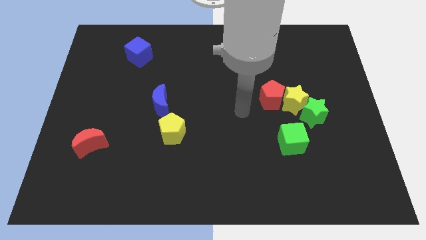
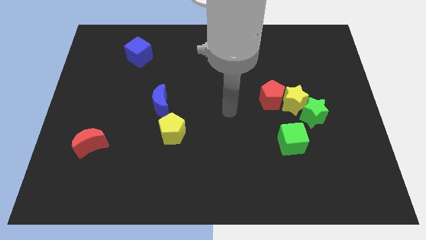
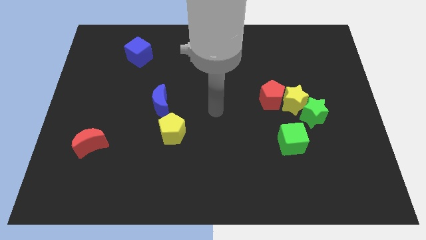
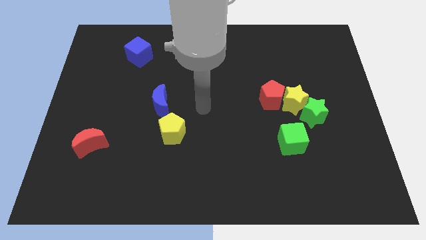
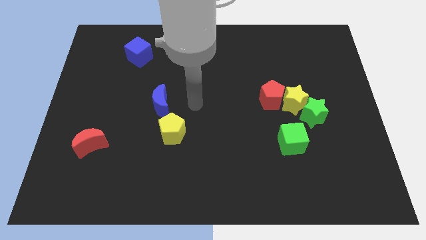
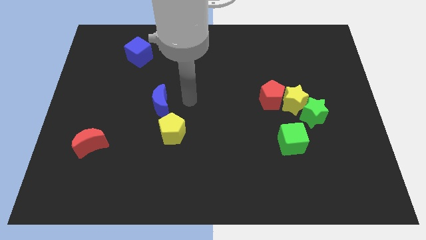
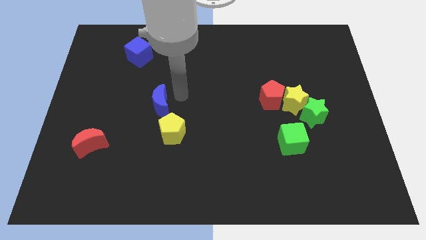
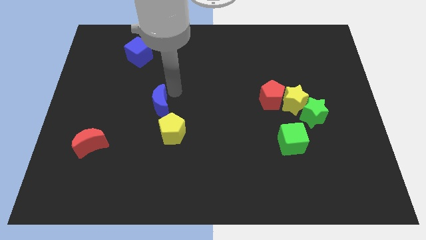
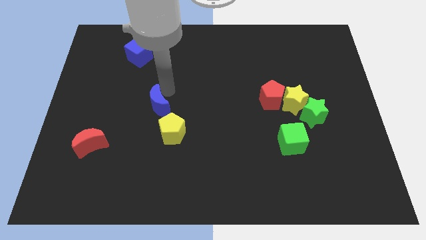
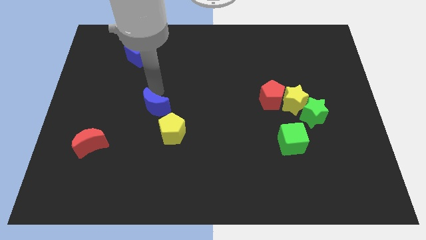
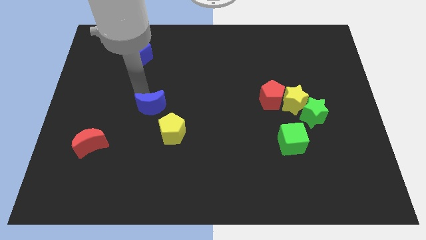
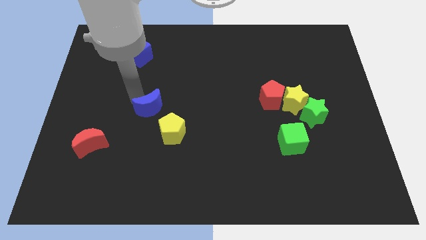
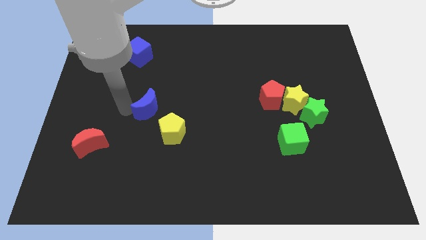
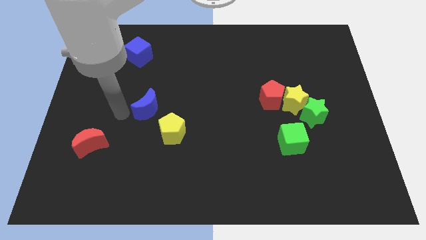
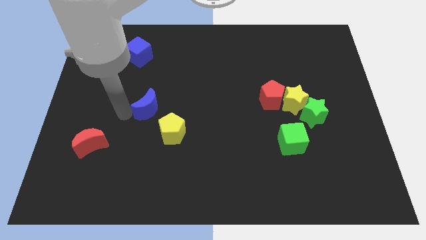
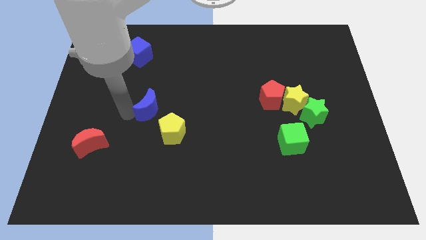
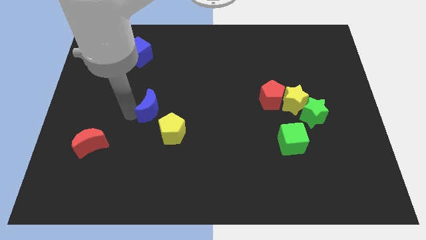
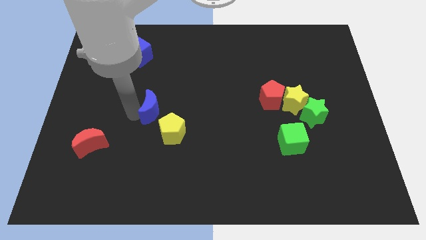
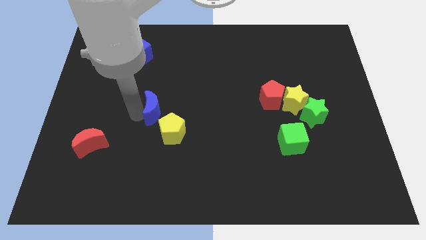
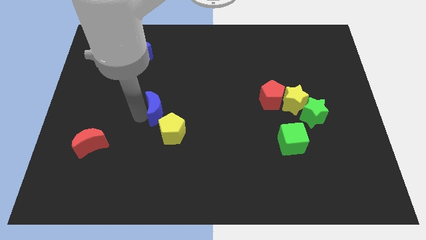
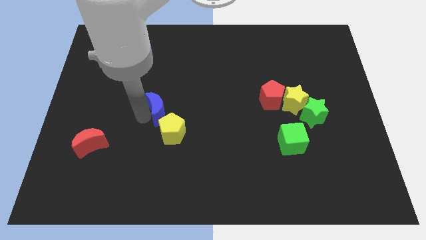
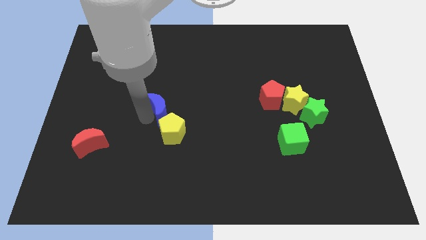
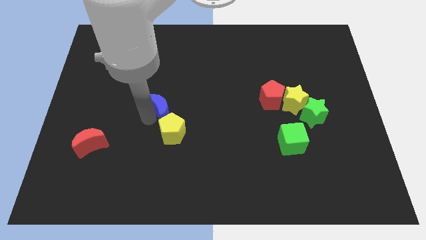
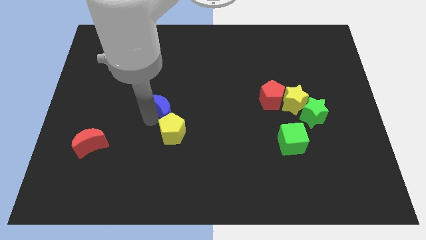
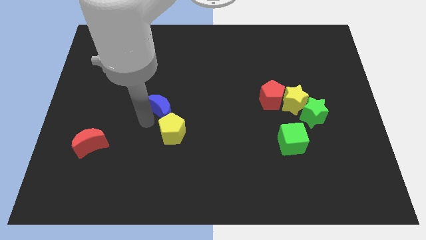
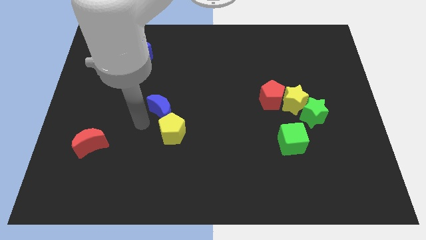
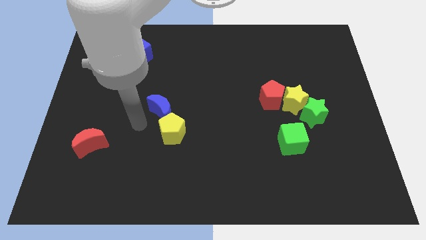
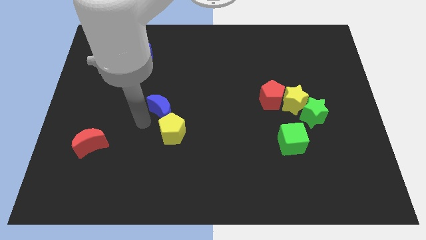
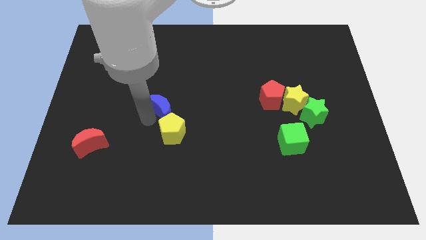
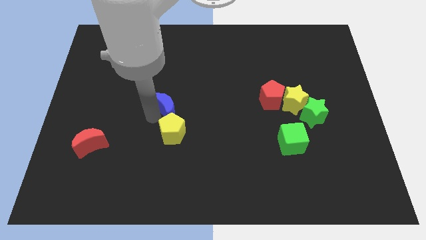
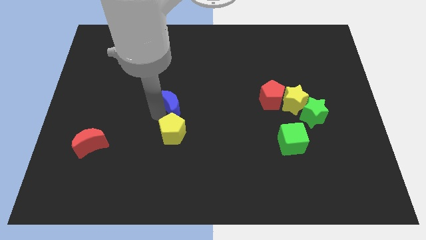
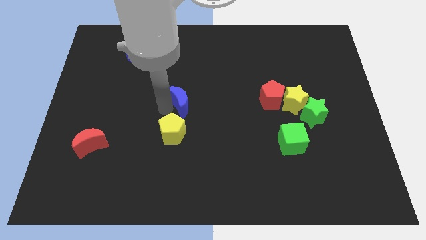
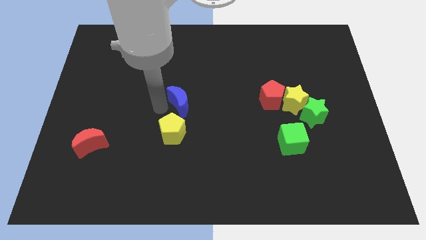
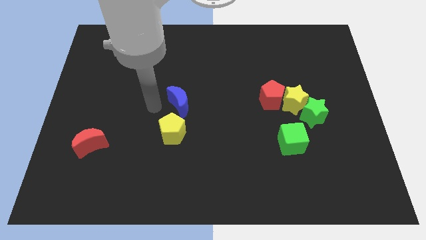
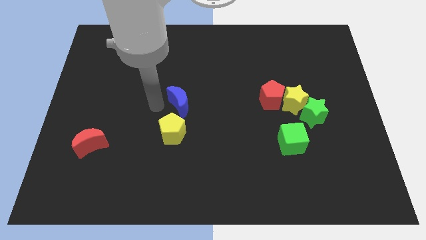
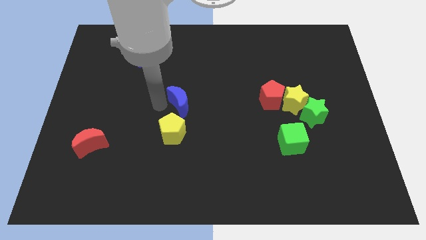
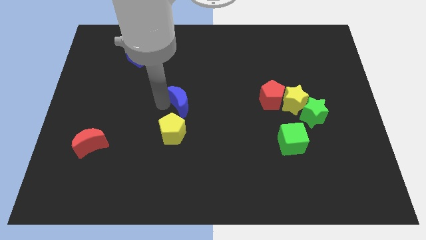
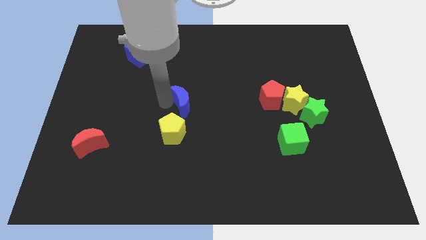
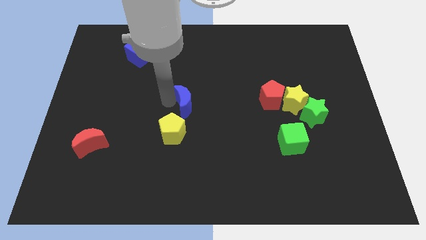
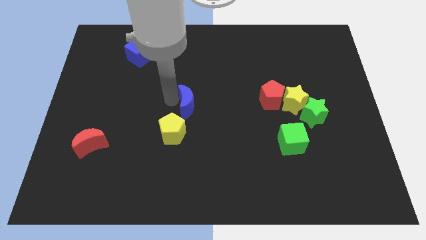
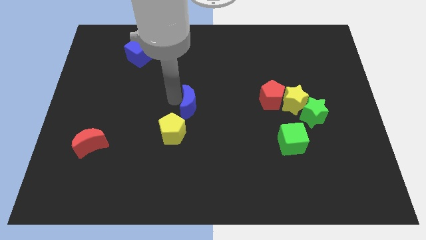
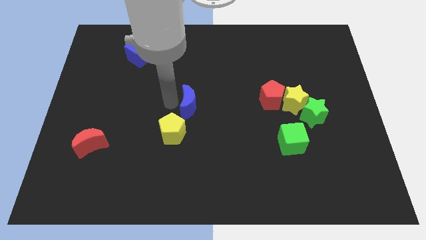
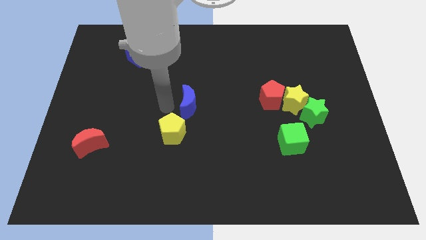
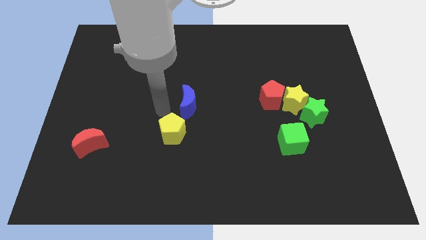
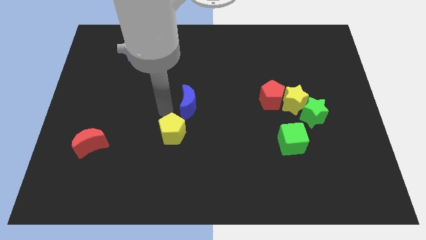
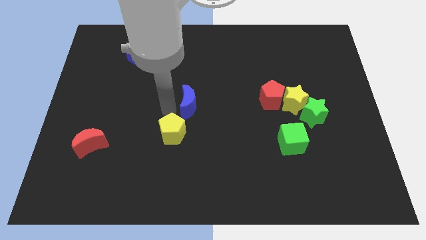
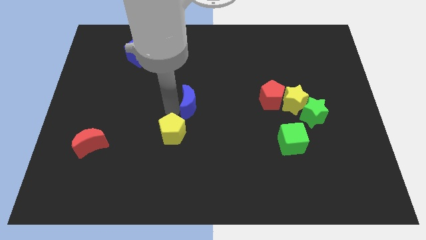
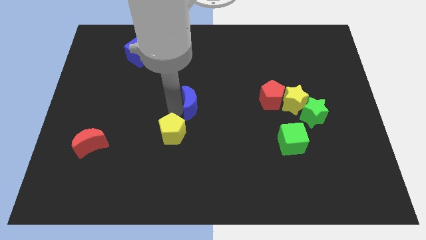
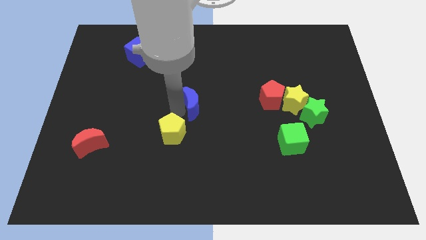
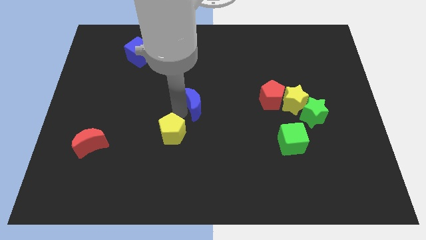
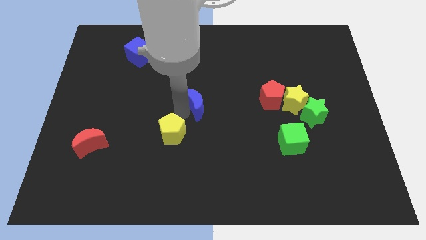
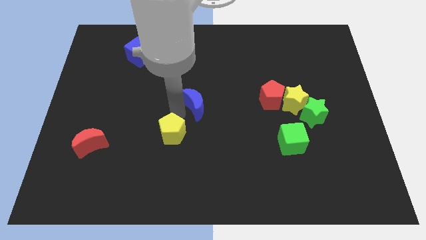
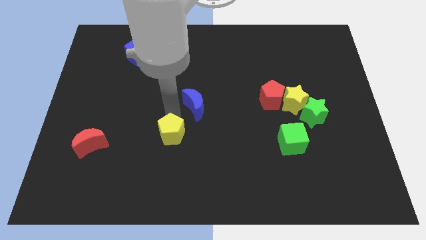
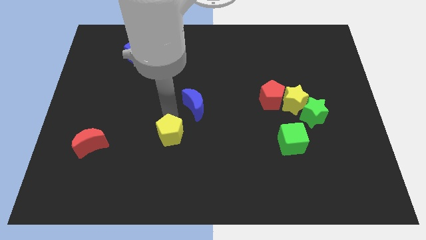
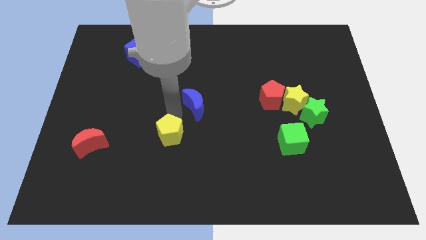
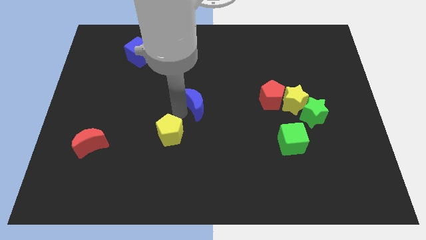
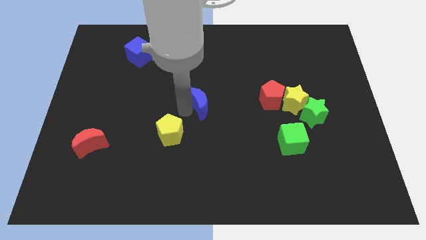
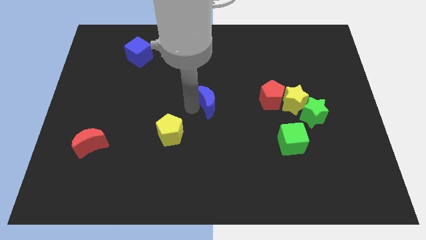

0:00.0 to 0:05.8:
slide the blue moon to the left side of the red pentagon

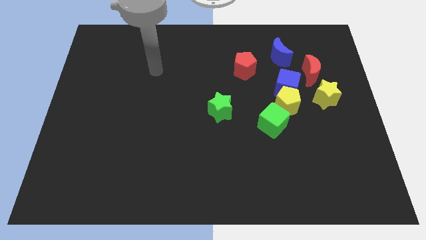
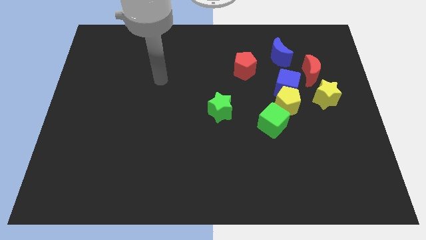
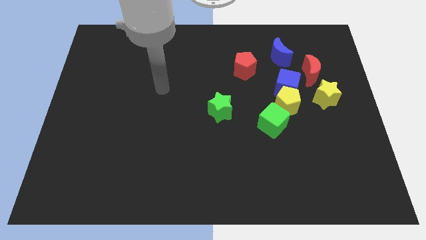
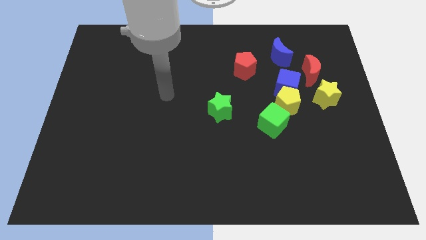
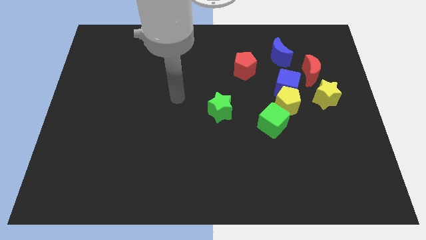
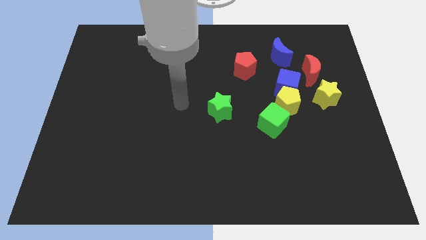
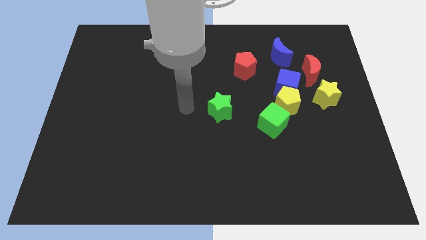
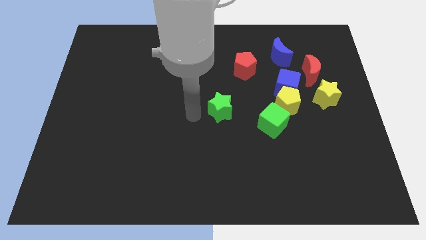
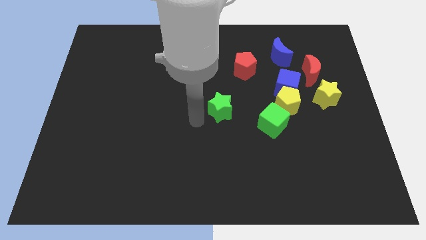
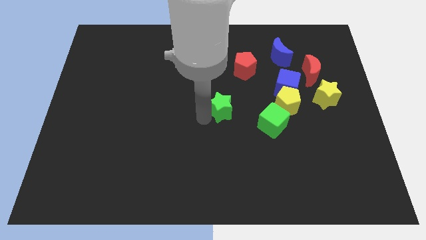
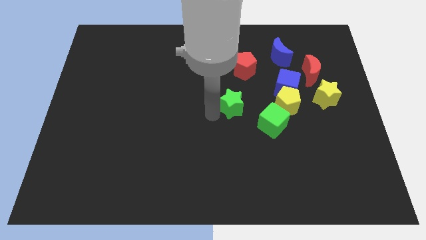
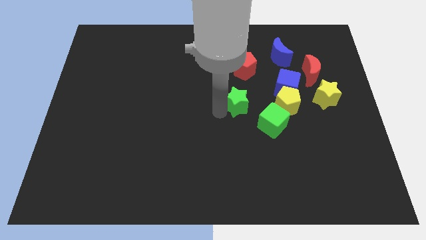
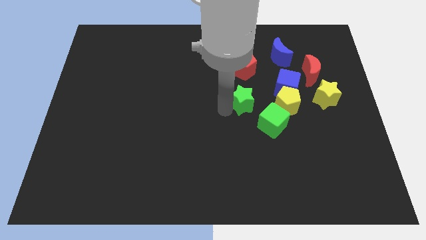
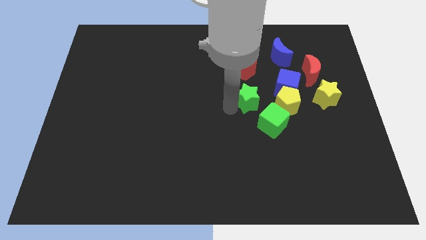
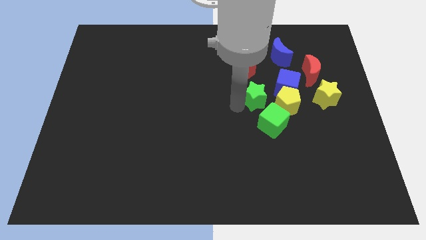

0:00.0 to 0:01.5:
slide the green star to the top of the green cube
